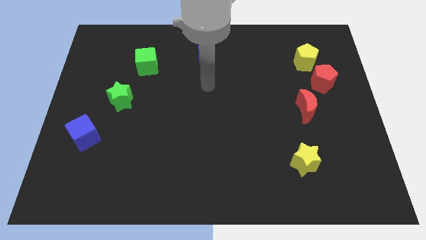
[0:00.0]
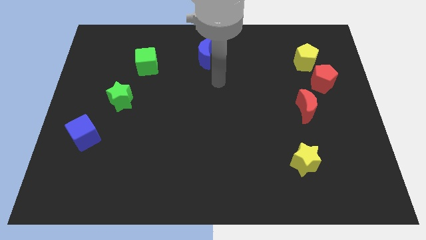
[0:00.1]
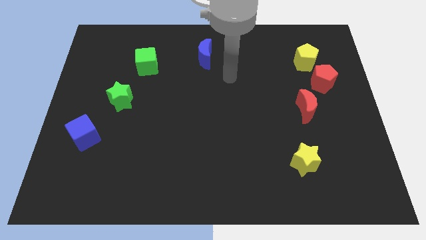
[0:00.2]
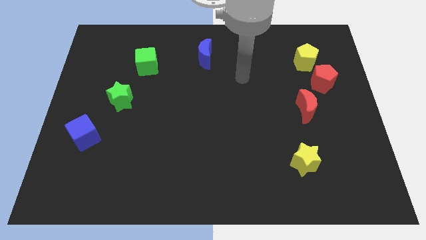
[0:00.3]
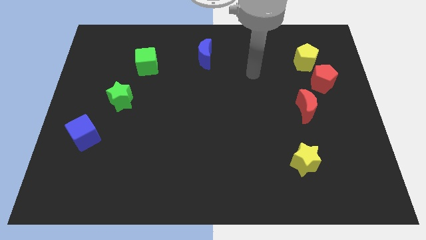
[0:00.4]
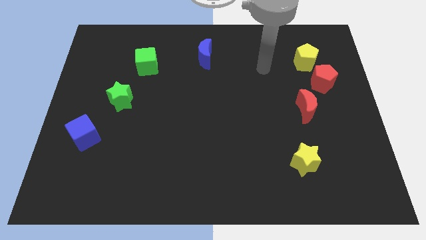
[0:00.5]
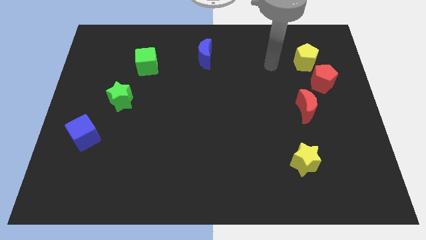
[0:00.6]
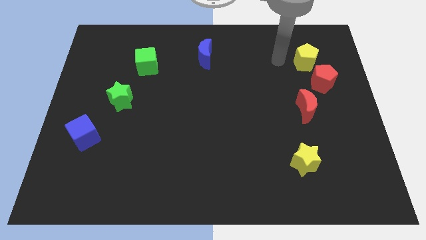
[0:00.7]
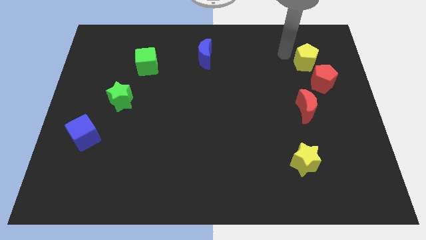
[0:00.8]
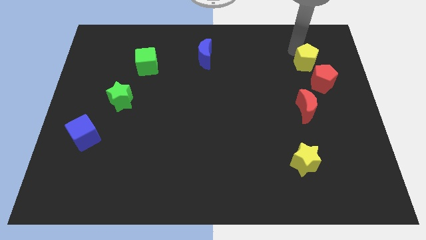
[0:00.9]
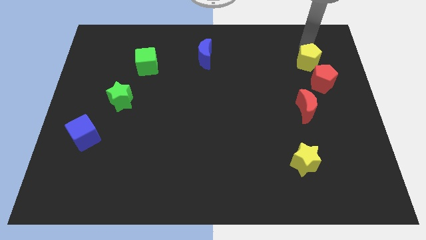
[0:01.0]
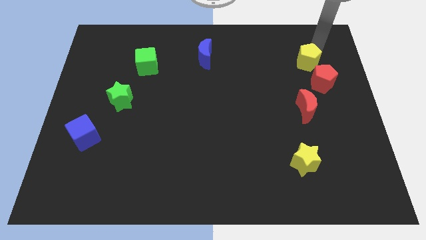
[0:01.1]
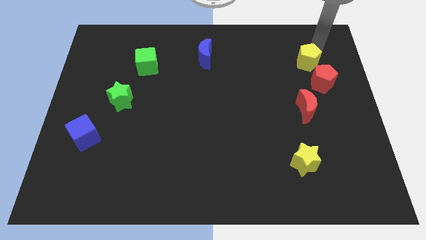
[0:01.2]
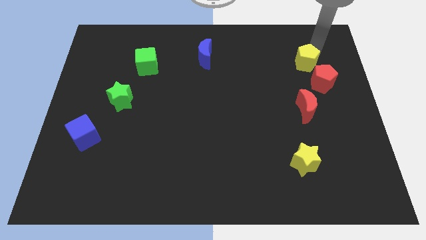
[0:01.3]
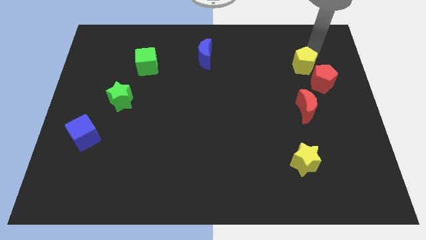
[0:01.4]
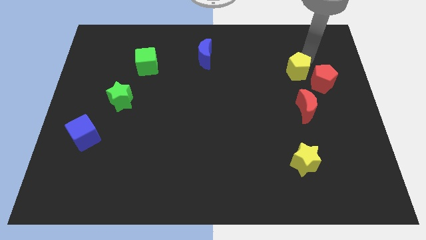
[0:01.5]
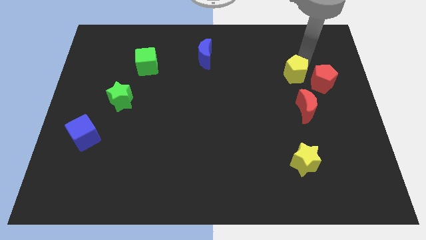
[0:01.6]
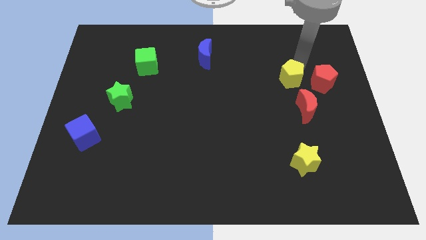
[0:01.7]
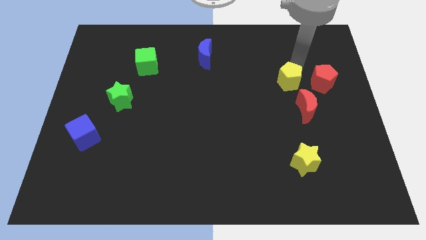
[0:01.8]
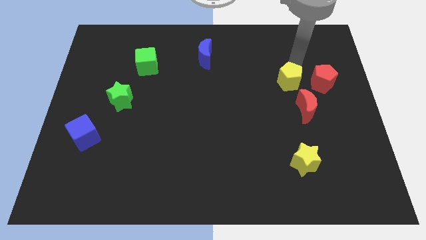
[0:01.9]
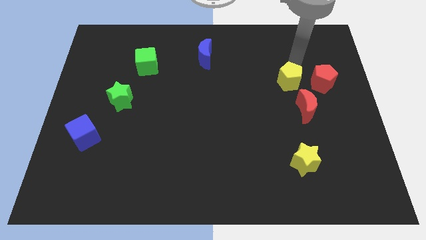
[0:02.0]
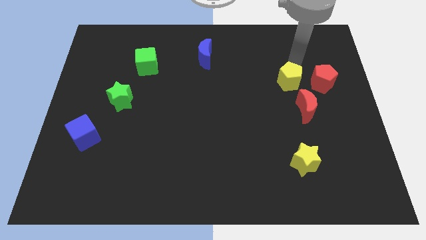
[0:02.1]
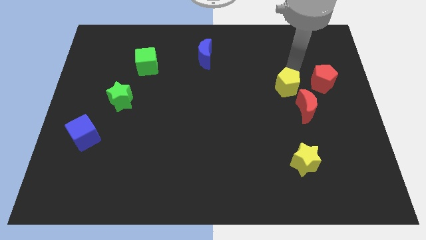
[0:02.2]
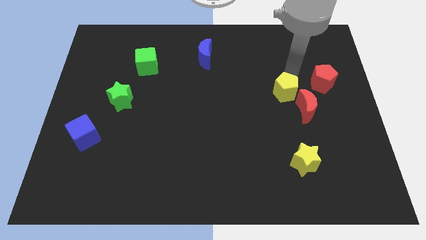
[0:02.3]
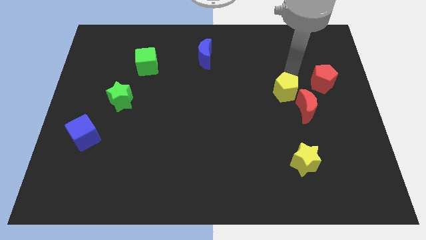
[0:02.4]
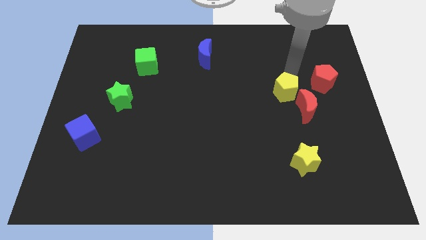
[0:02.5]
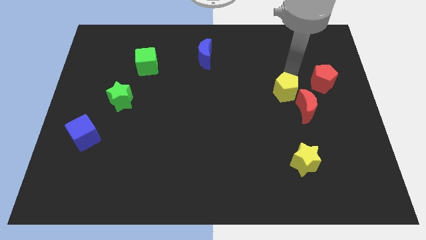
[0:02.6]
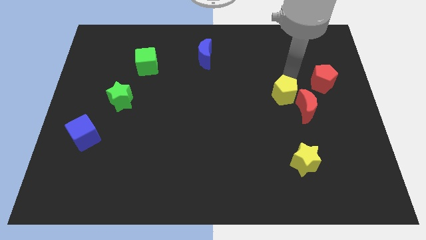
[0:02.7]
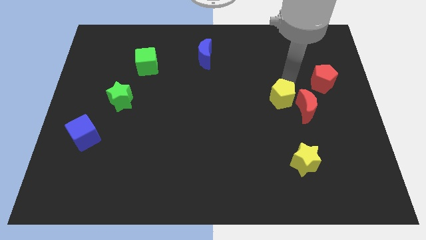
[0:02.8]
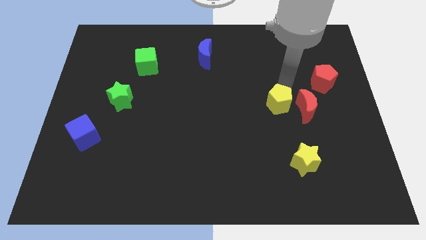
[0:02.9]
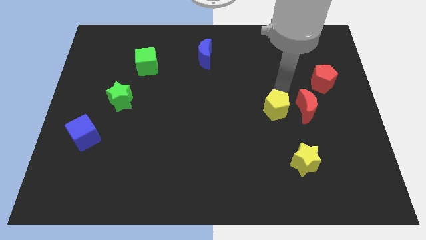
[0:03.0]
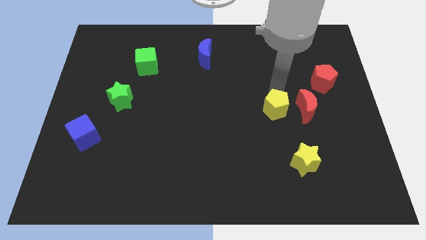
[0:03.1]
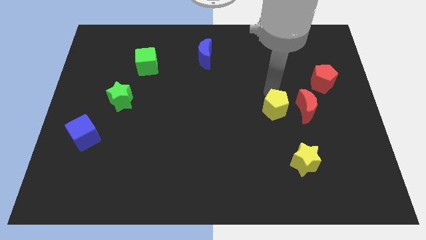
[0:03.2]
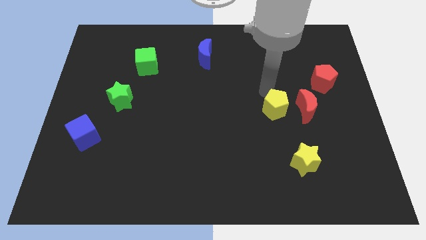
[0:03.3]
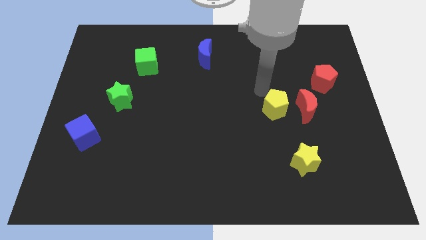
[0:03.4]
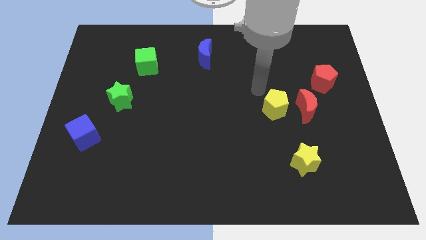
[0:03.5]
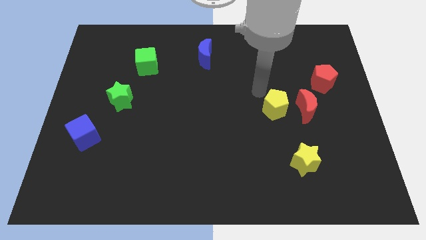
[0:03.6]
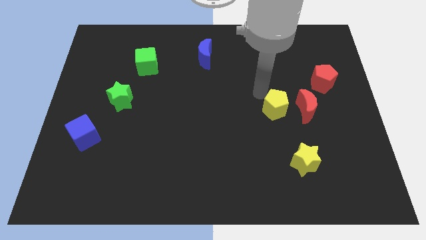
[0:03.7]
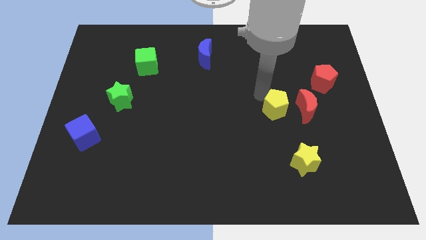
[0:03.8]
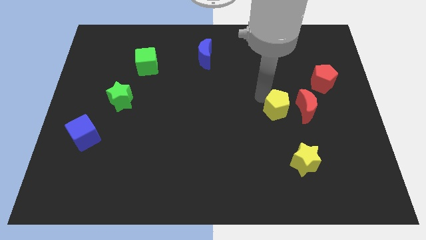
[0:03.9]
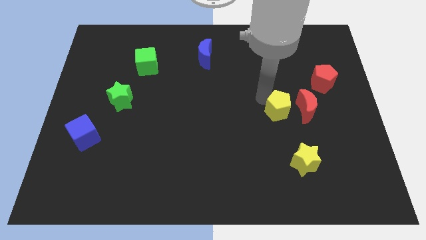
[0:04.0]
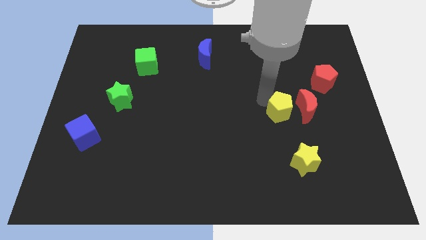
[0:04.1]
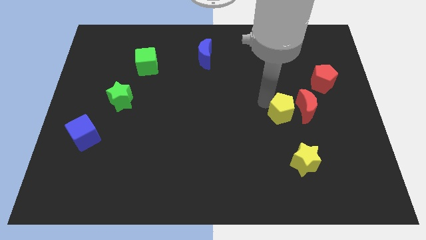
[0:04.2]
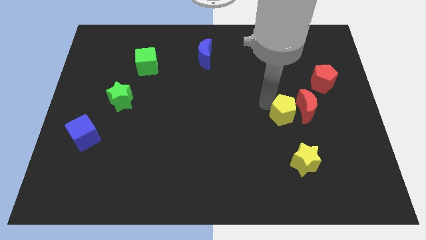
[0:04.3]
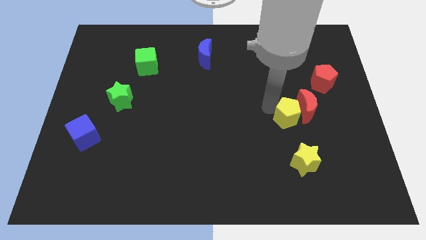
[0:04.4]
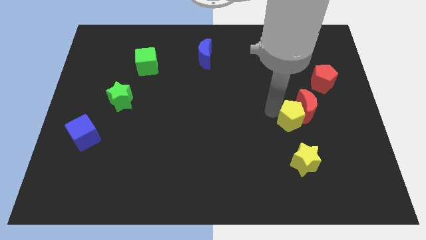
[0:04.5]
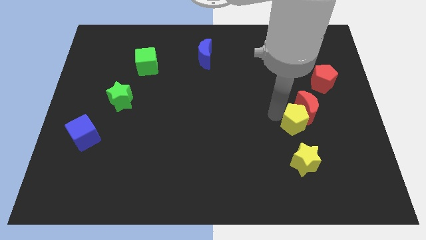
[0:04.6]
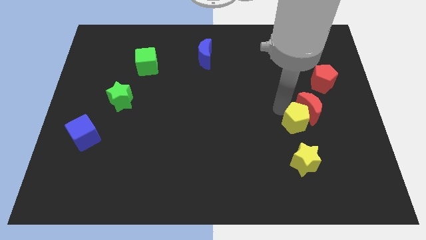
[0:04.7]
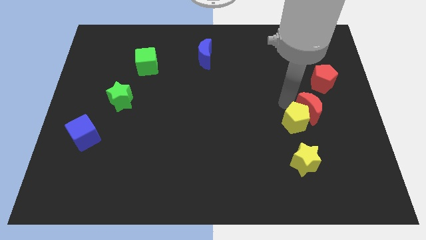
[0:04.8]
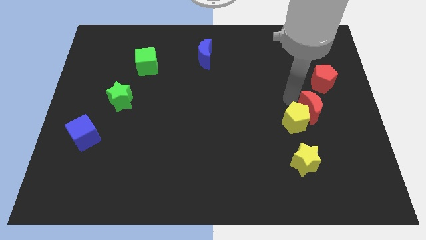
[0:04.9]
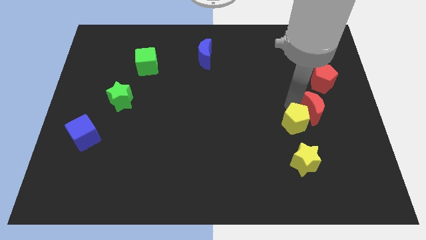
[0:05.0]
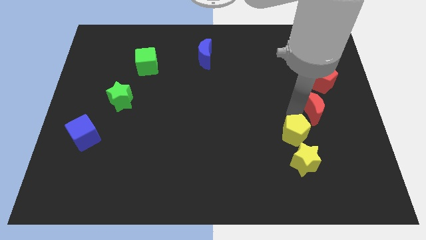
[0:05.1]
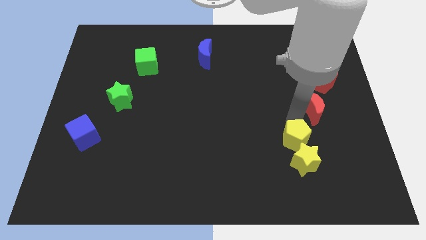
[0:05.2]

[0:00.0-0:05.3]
push the yellow pentagon to the yellow star

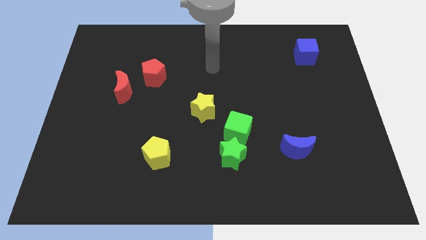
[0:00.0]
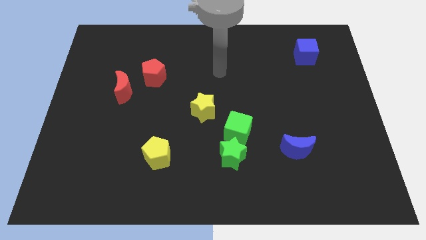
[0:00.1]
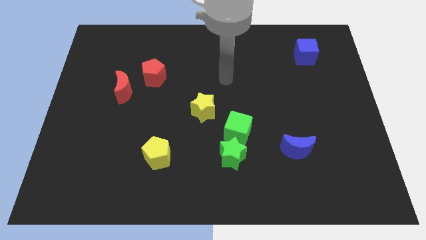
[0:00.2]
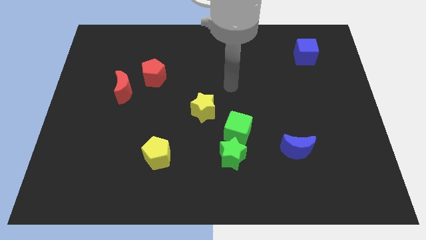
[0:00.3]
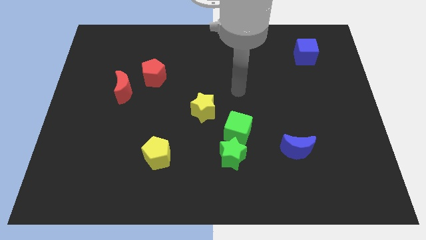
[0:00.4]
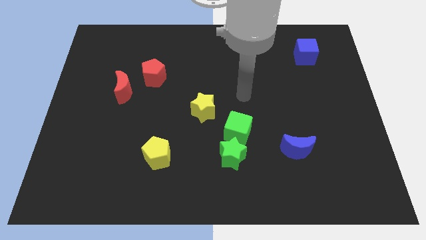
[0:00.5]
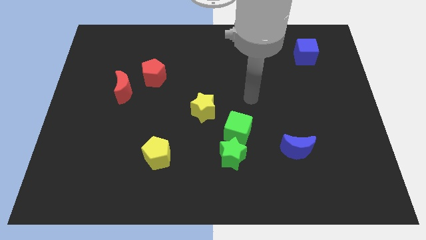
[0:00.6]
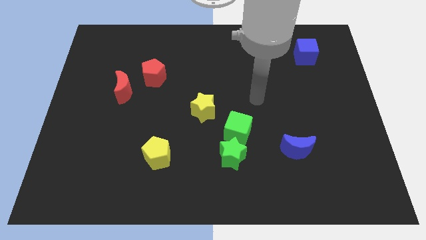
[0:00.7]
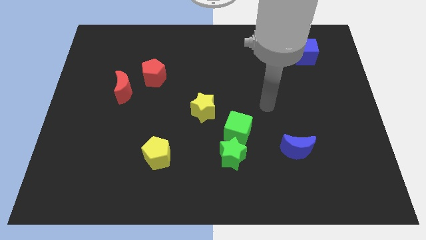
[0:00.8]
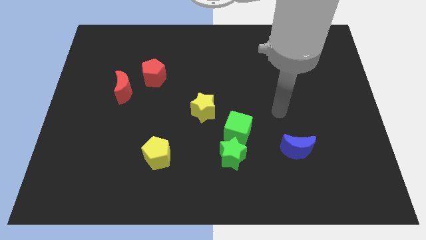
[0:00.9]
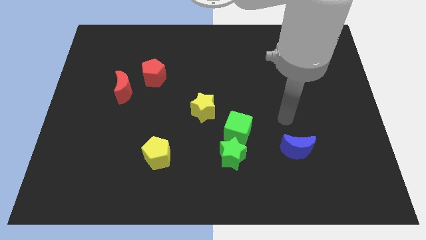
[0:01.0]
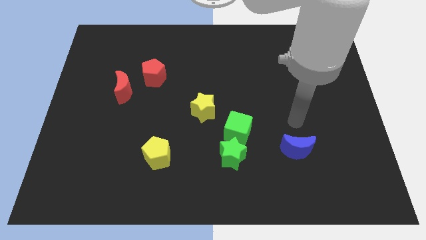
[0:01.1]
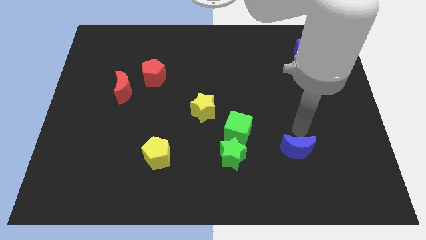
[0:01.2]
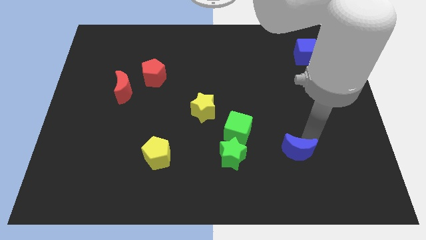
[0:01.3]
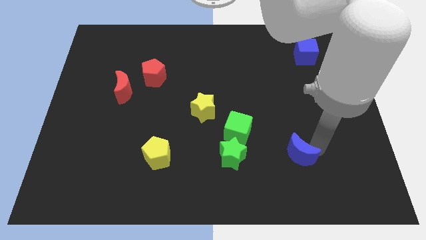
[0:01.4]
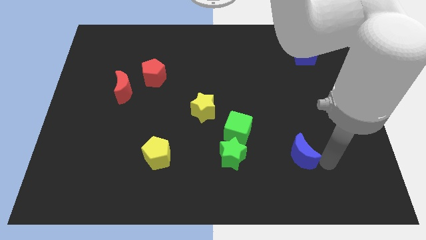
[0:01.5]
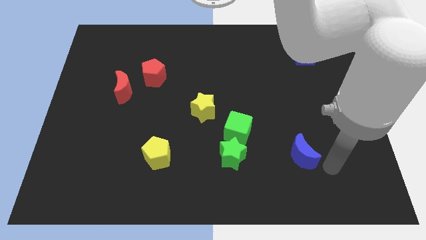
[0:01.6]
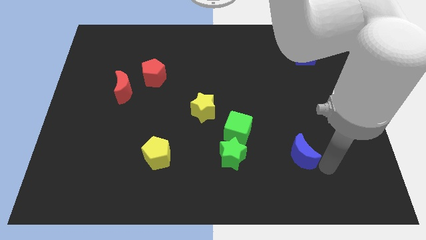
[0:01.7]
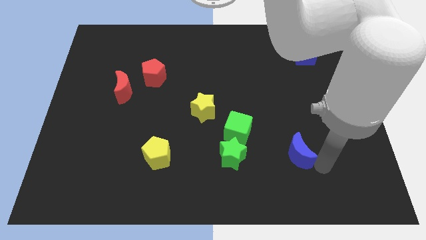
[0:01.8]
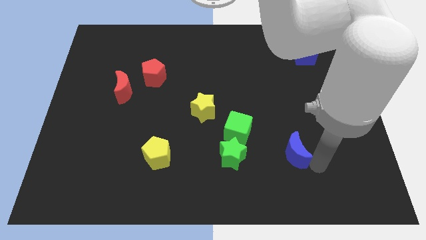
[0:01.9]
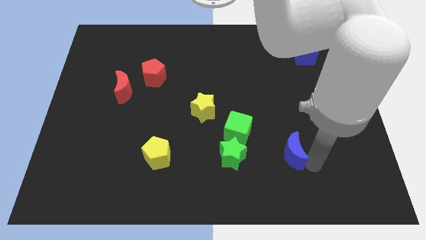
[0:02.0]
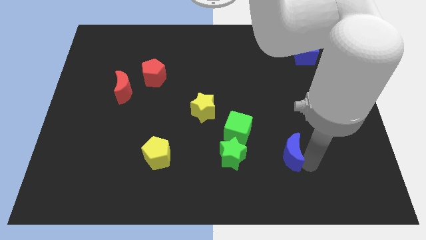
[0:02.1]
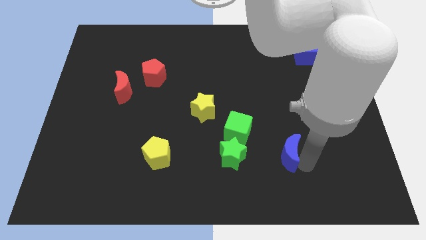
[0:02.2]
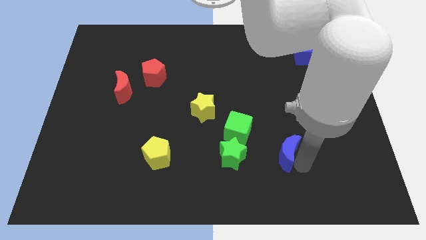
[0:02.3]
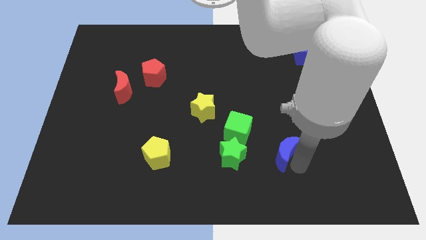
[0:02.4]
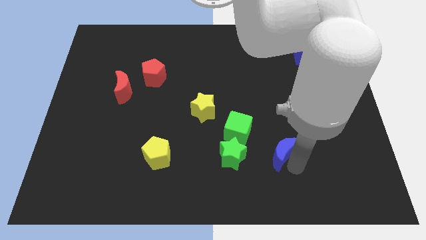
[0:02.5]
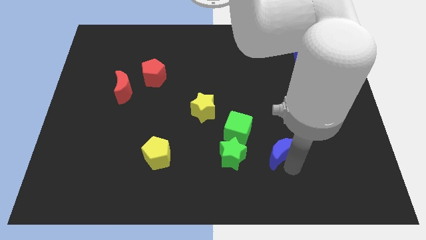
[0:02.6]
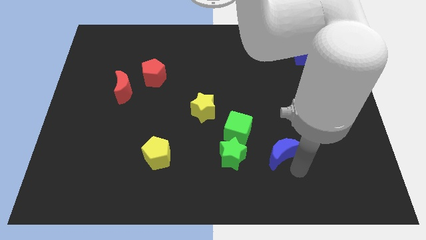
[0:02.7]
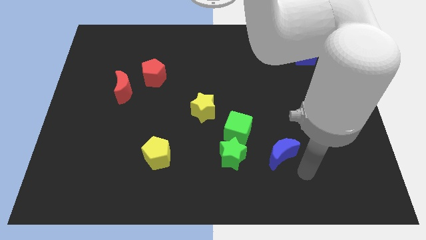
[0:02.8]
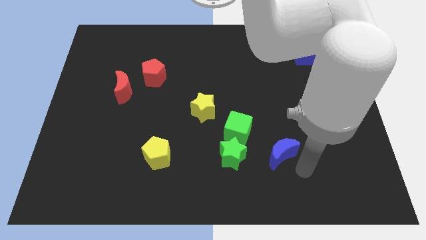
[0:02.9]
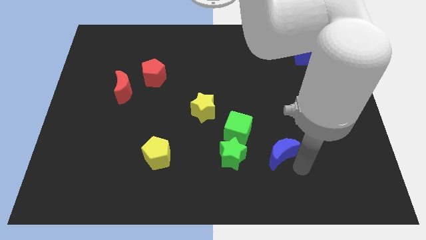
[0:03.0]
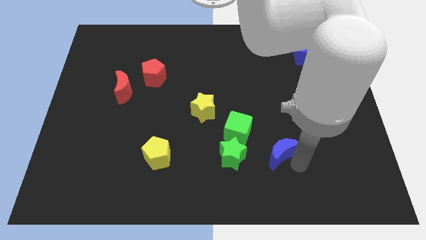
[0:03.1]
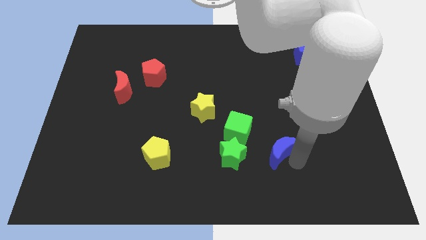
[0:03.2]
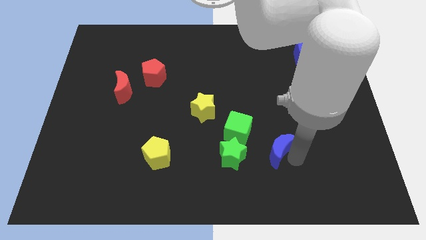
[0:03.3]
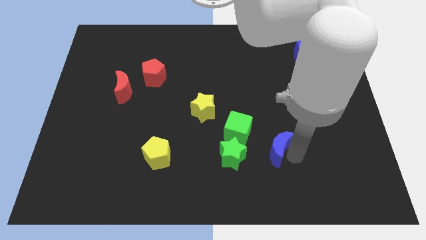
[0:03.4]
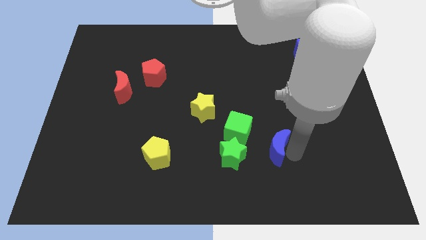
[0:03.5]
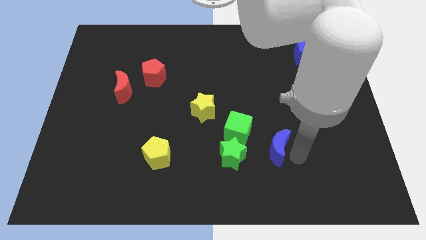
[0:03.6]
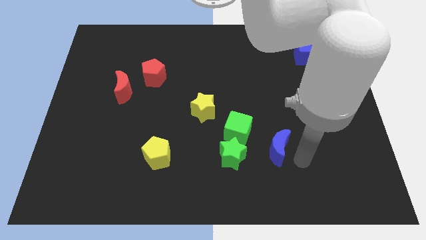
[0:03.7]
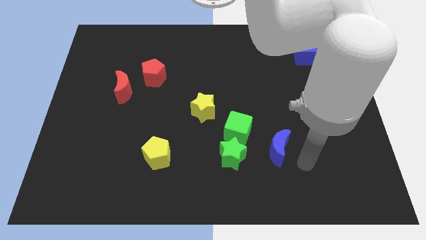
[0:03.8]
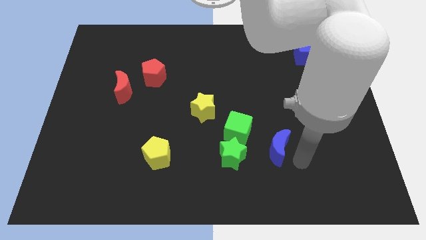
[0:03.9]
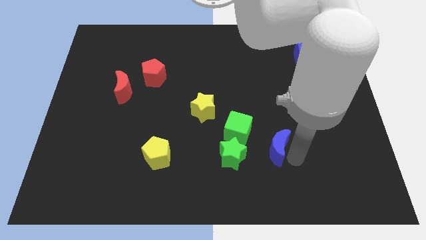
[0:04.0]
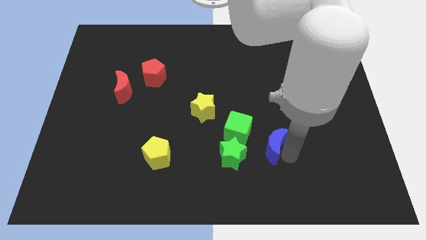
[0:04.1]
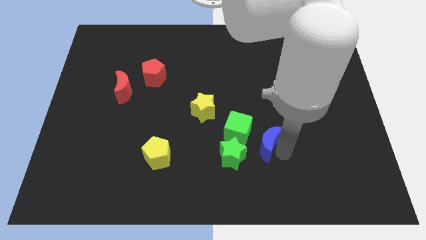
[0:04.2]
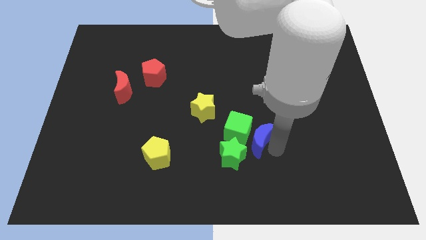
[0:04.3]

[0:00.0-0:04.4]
slide the blue moon next to the green cube
